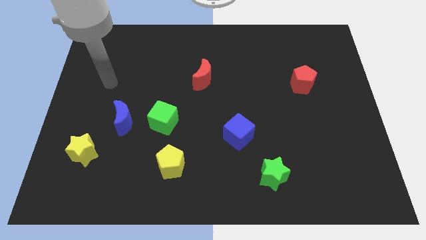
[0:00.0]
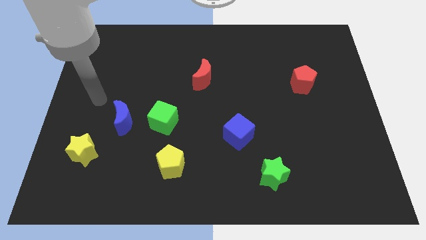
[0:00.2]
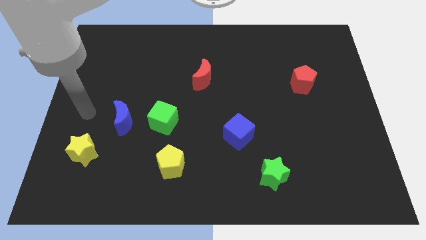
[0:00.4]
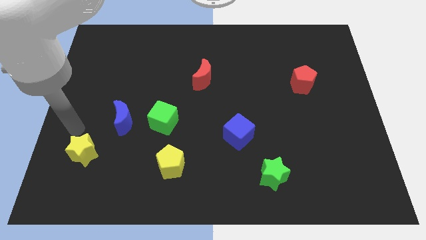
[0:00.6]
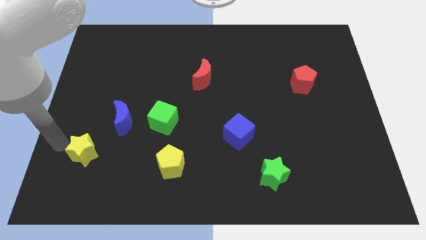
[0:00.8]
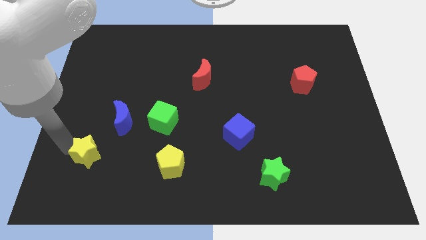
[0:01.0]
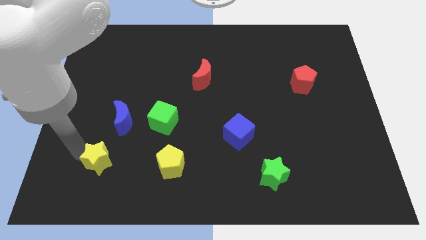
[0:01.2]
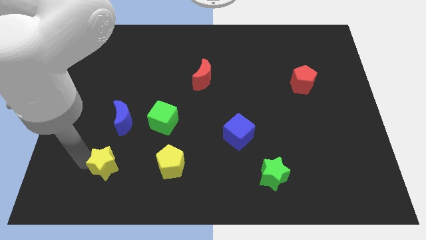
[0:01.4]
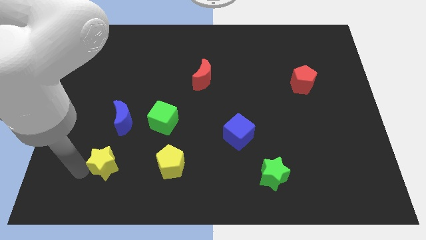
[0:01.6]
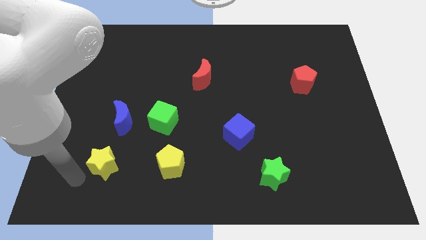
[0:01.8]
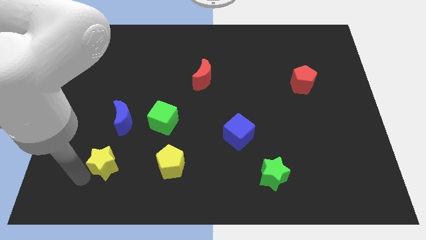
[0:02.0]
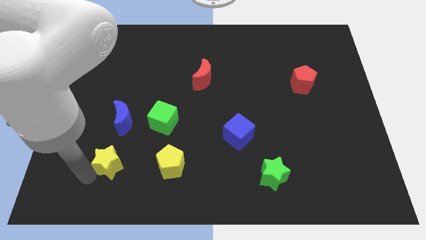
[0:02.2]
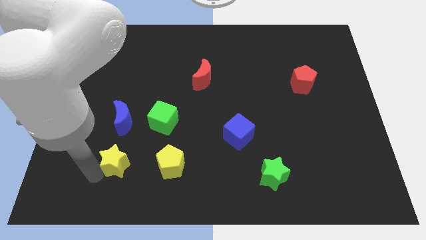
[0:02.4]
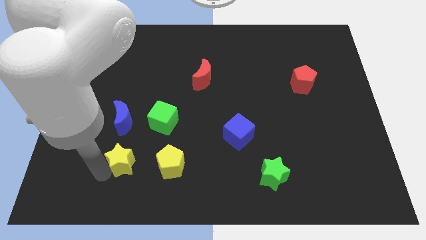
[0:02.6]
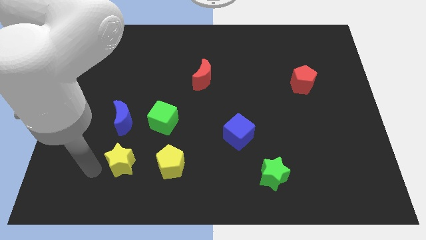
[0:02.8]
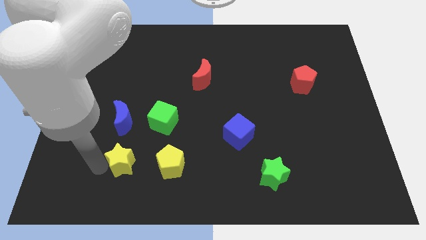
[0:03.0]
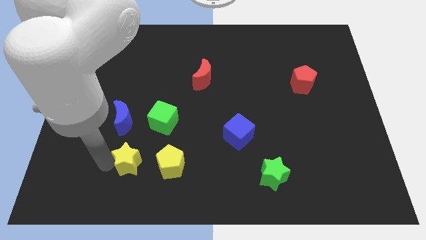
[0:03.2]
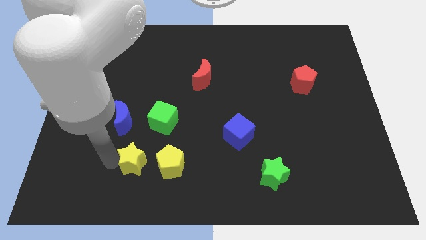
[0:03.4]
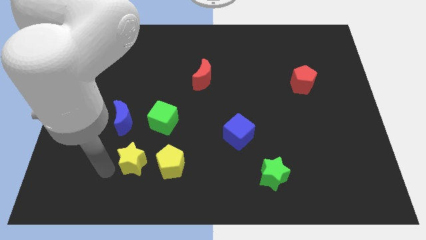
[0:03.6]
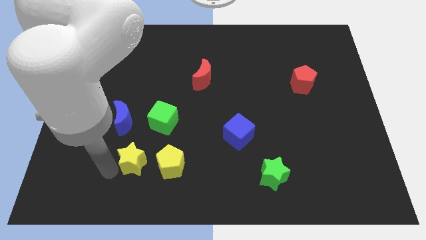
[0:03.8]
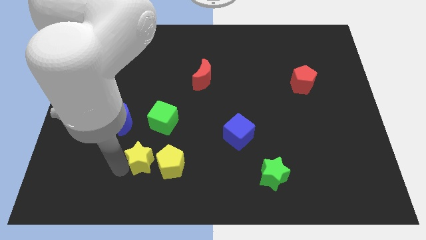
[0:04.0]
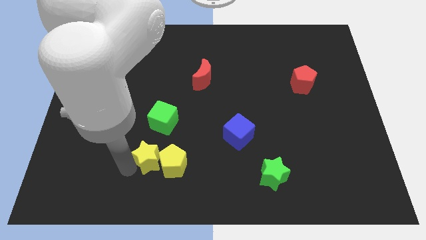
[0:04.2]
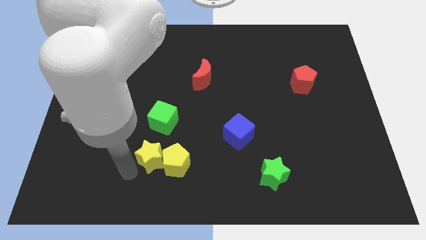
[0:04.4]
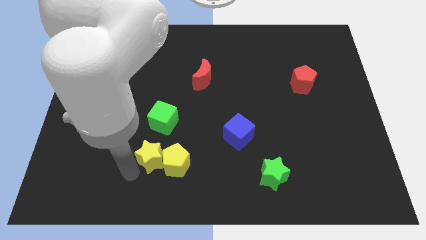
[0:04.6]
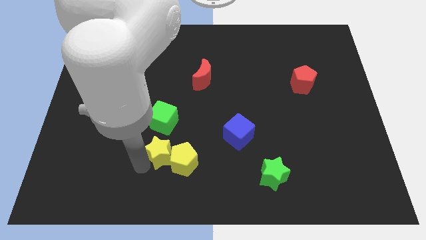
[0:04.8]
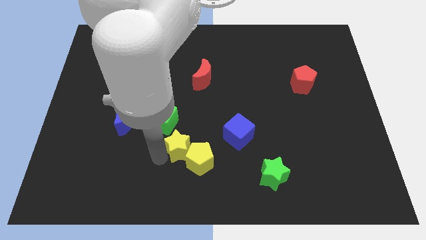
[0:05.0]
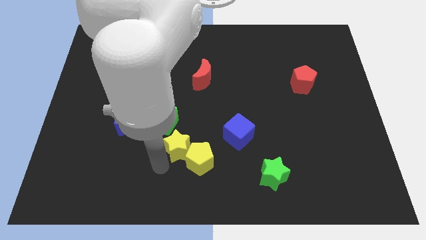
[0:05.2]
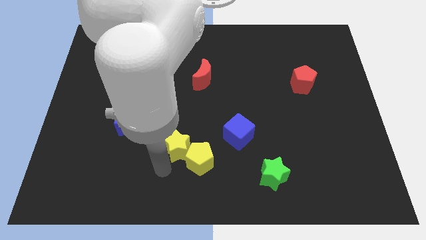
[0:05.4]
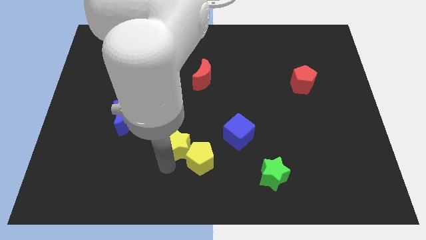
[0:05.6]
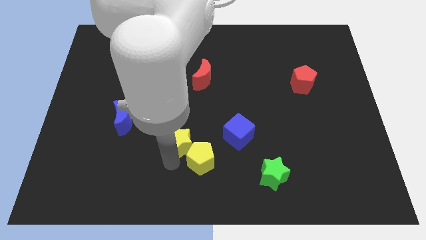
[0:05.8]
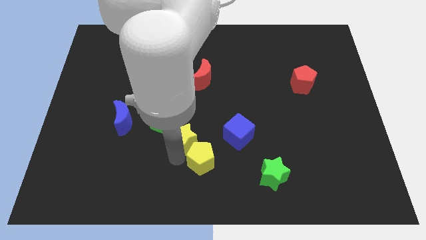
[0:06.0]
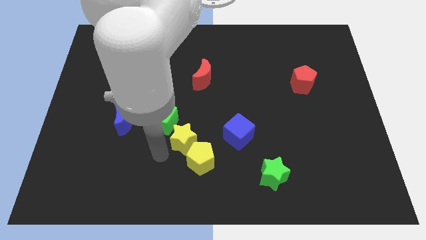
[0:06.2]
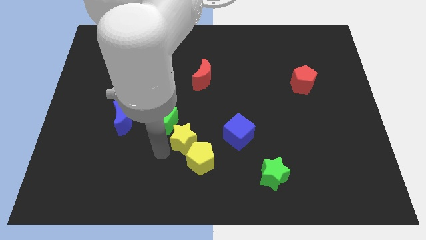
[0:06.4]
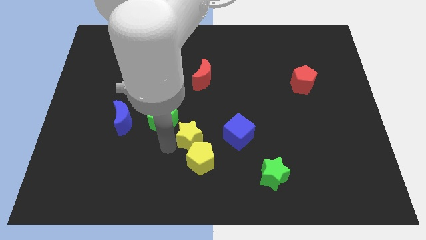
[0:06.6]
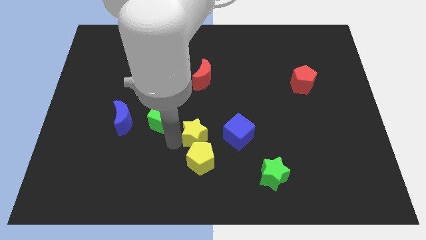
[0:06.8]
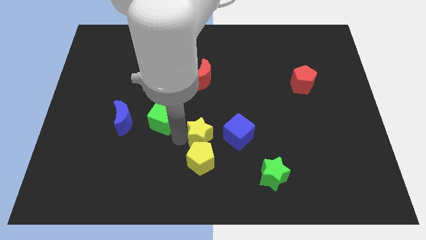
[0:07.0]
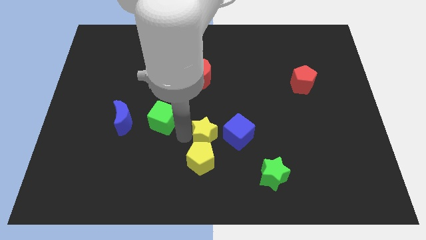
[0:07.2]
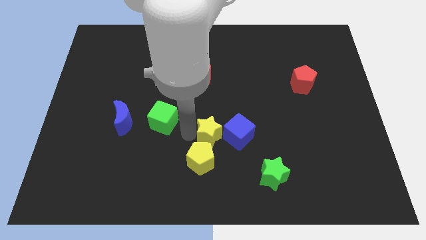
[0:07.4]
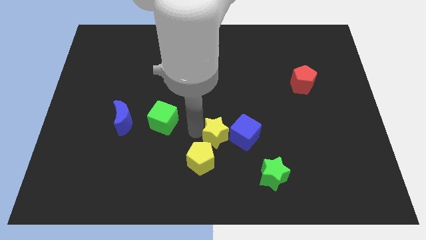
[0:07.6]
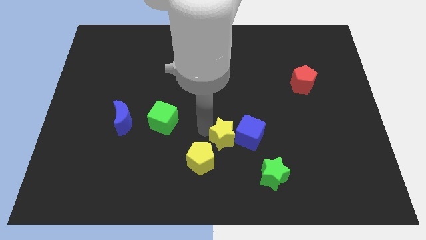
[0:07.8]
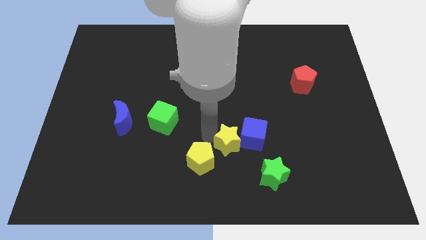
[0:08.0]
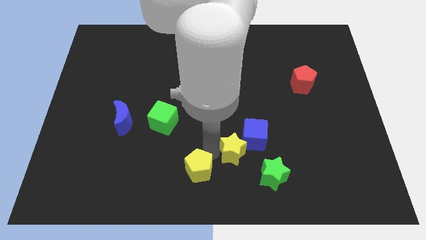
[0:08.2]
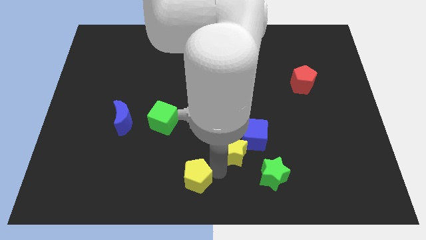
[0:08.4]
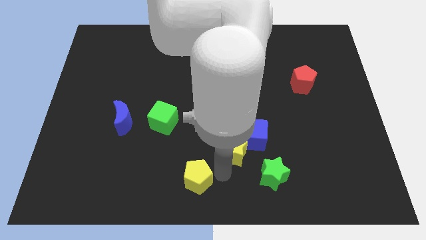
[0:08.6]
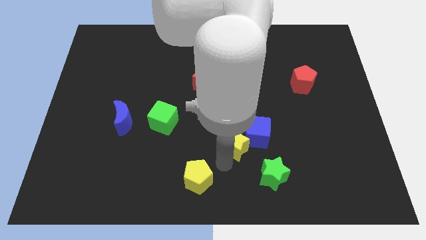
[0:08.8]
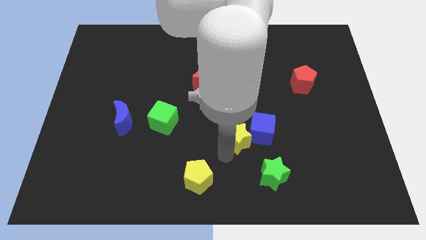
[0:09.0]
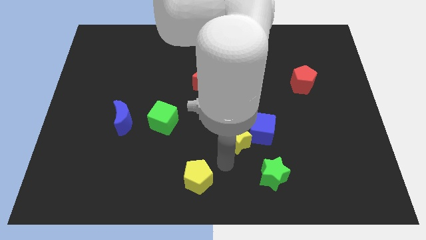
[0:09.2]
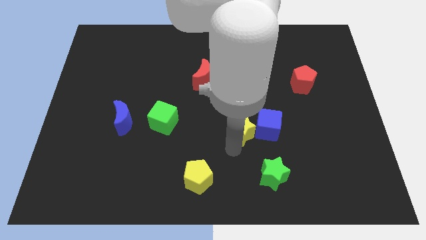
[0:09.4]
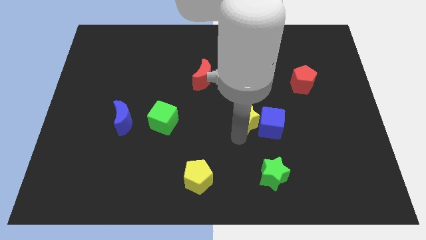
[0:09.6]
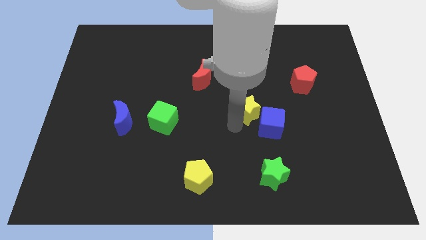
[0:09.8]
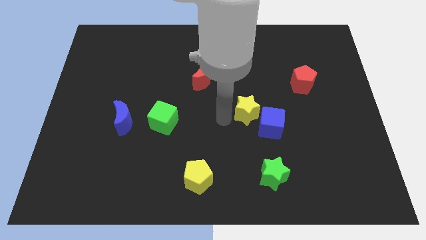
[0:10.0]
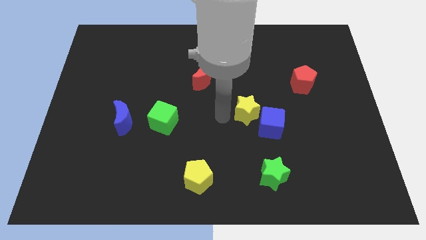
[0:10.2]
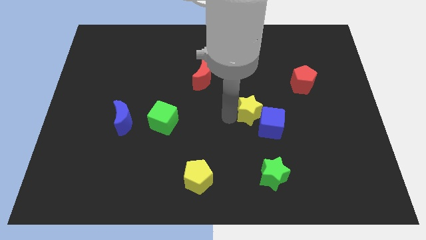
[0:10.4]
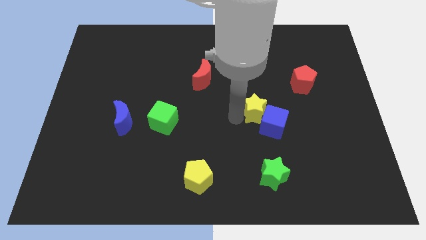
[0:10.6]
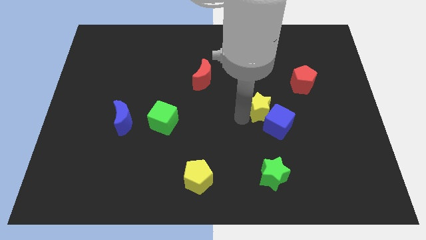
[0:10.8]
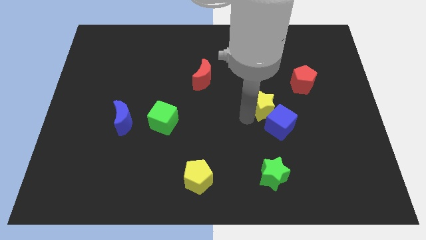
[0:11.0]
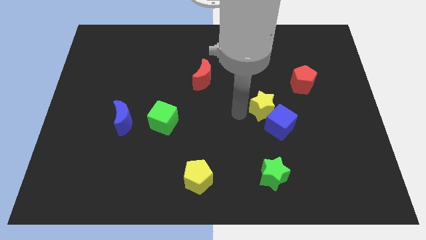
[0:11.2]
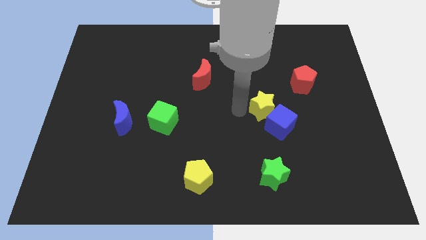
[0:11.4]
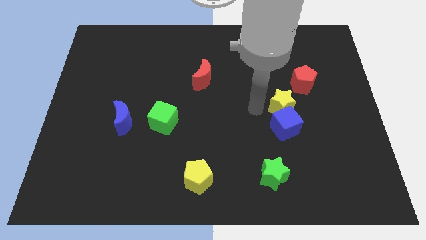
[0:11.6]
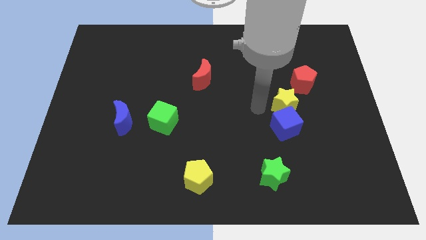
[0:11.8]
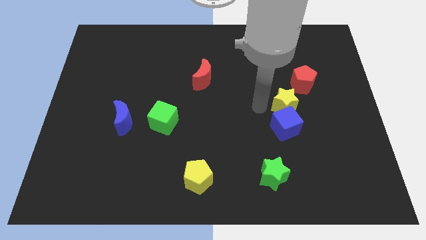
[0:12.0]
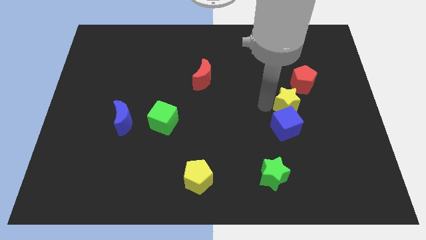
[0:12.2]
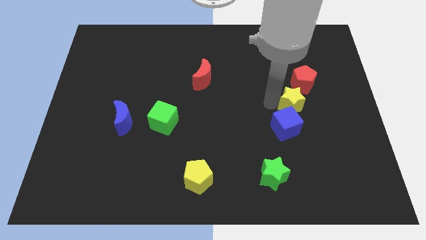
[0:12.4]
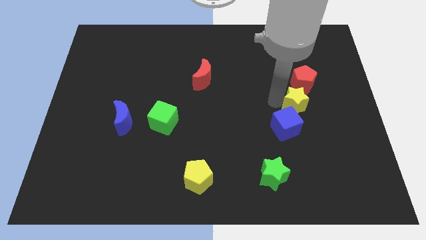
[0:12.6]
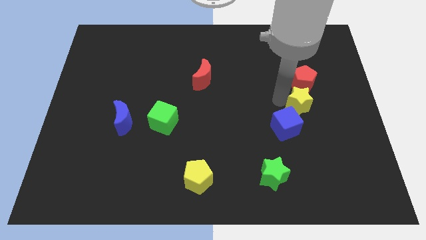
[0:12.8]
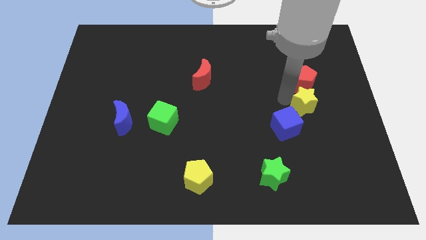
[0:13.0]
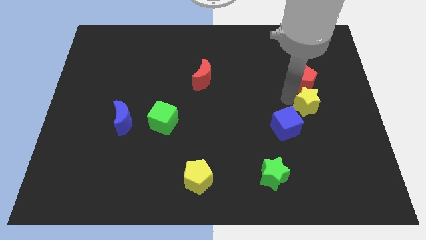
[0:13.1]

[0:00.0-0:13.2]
push the yellow star diagonally down and to the right of the red pentagon
